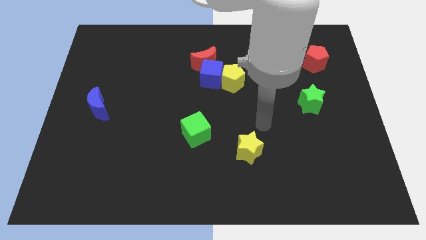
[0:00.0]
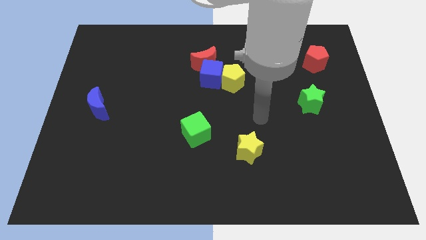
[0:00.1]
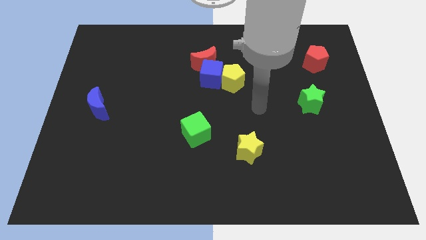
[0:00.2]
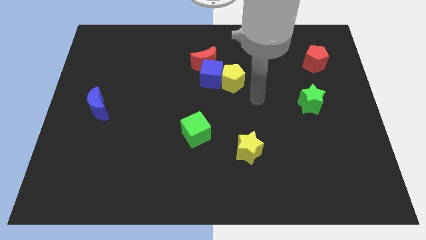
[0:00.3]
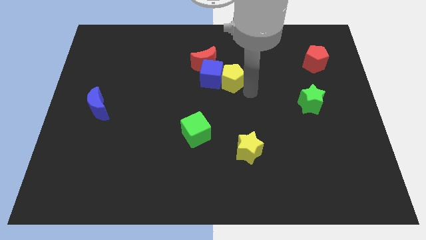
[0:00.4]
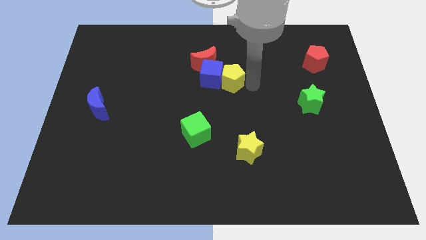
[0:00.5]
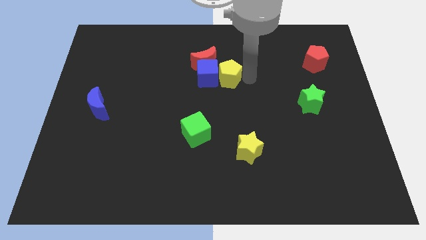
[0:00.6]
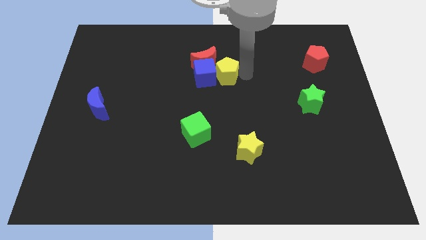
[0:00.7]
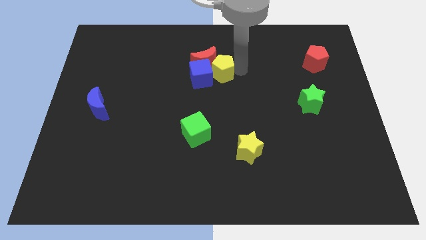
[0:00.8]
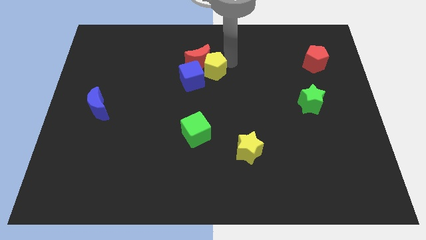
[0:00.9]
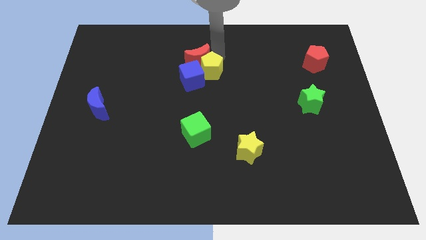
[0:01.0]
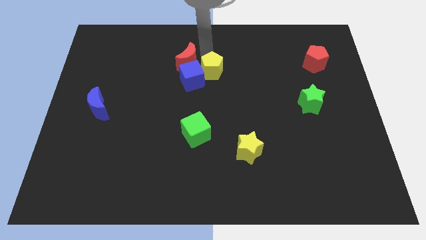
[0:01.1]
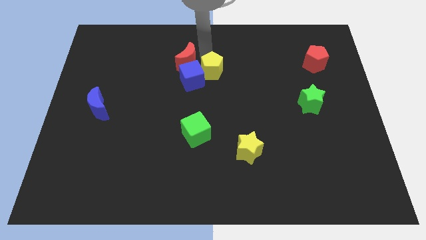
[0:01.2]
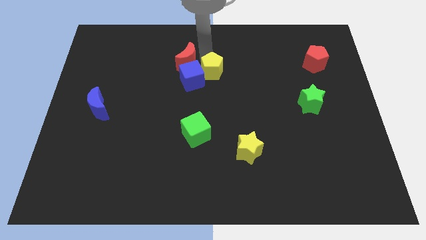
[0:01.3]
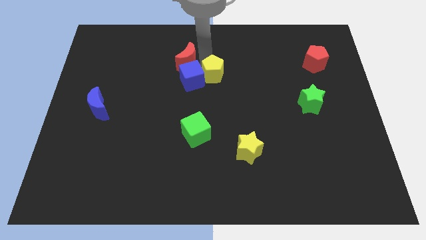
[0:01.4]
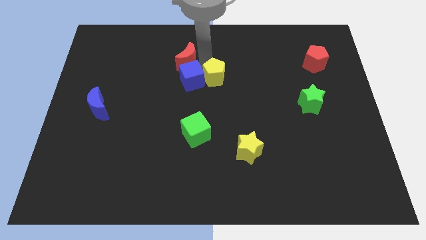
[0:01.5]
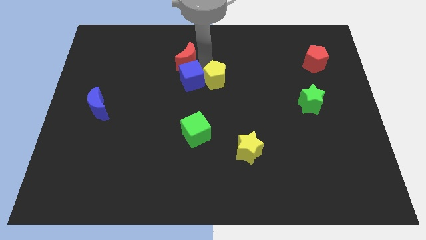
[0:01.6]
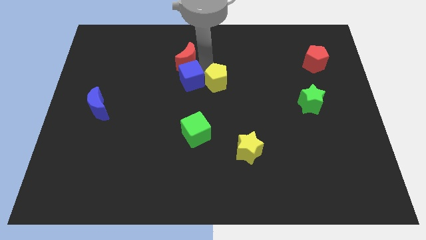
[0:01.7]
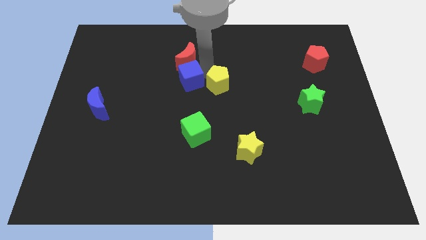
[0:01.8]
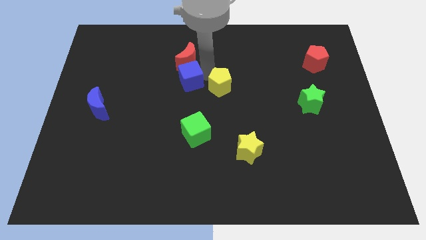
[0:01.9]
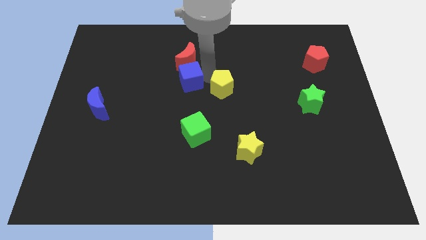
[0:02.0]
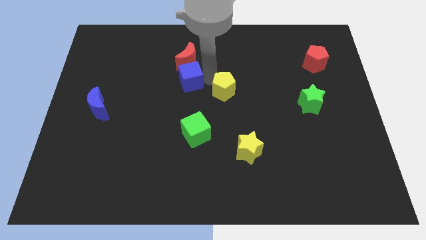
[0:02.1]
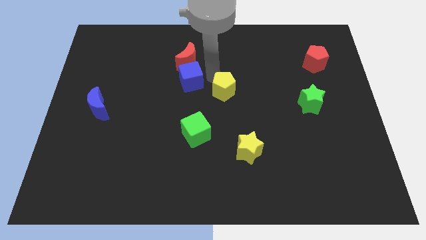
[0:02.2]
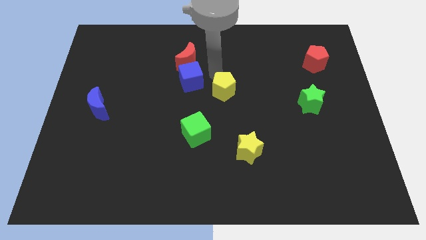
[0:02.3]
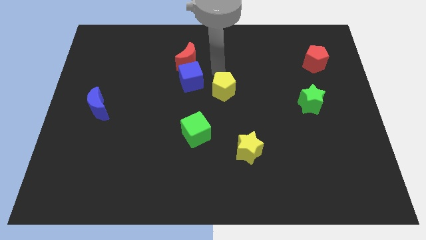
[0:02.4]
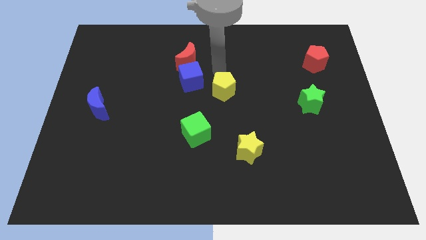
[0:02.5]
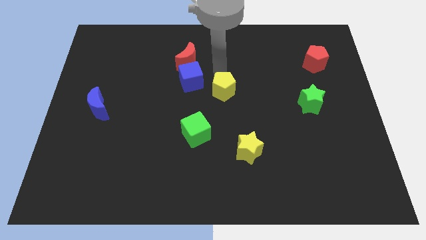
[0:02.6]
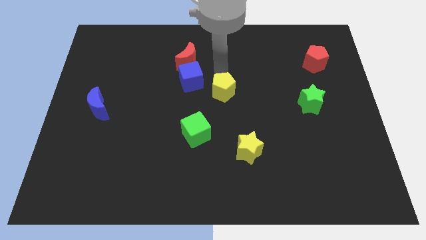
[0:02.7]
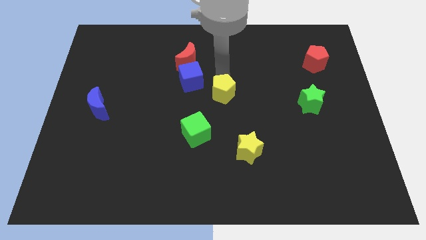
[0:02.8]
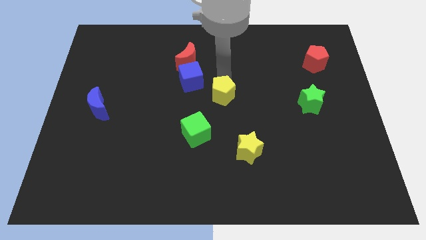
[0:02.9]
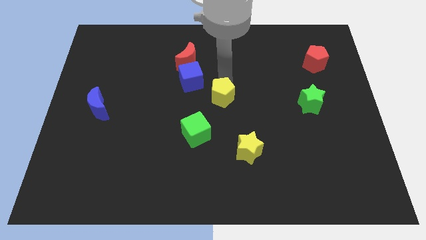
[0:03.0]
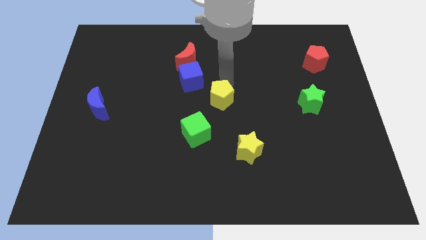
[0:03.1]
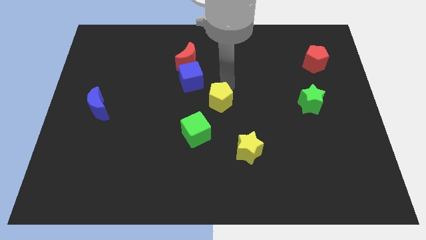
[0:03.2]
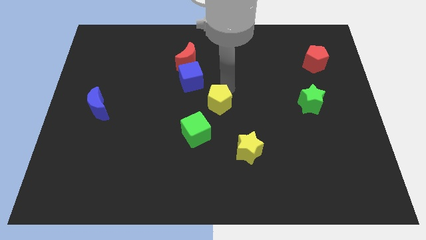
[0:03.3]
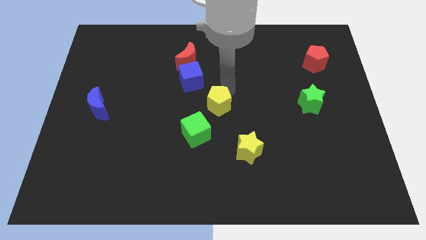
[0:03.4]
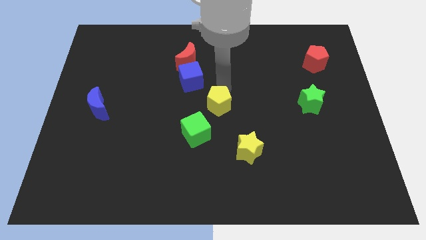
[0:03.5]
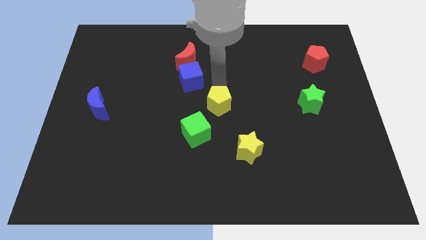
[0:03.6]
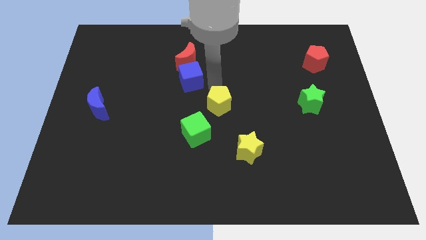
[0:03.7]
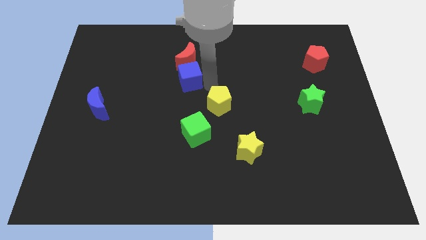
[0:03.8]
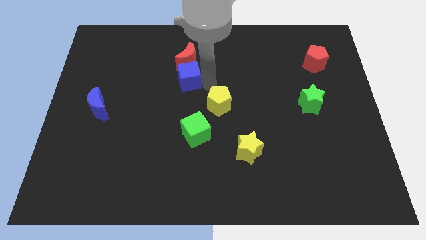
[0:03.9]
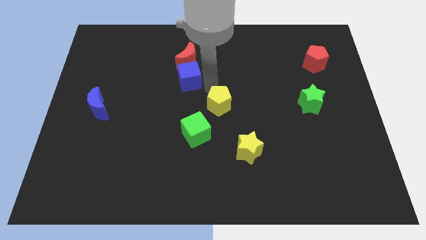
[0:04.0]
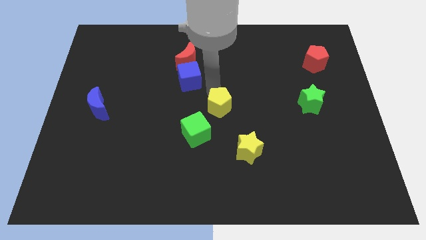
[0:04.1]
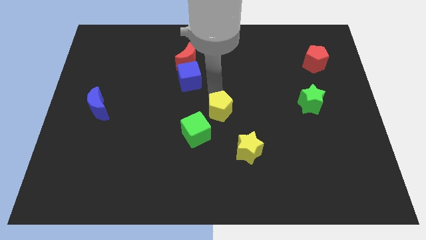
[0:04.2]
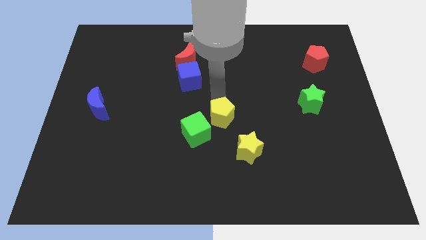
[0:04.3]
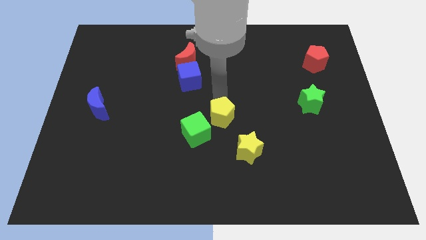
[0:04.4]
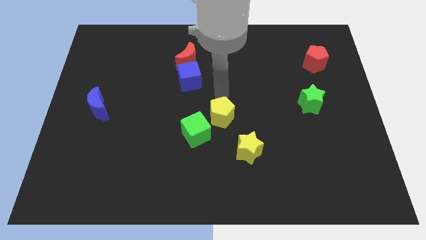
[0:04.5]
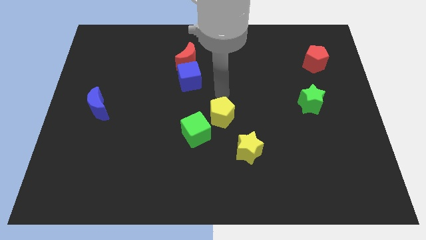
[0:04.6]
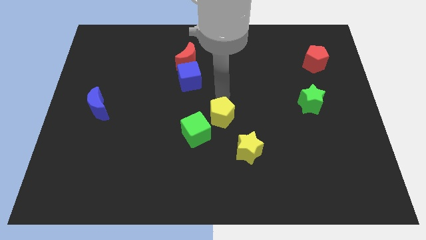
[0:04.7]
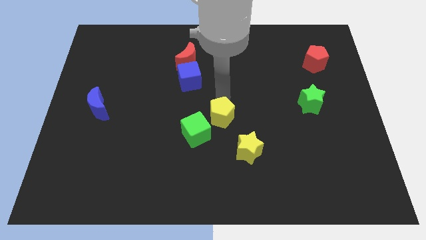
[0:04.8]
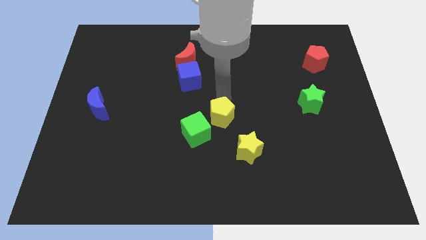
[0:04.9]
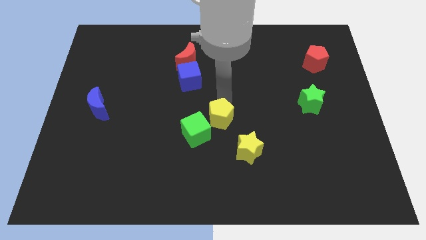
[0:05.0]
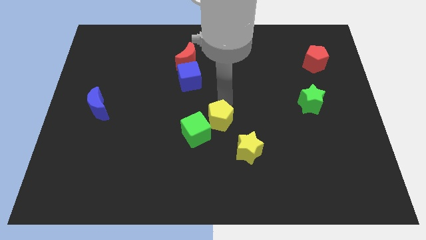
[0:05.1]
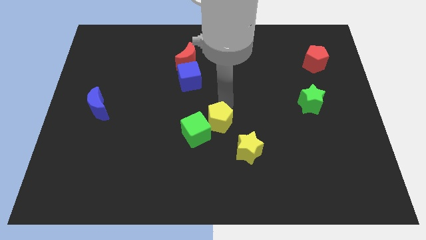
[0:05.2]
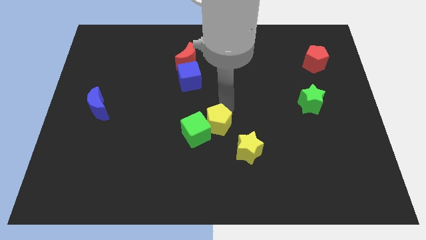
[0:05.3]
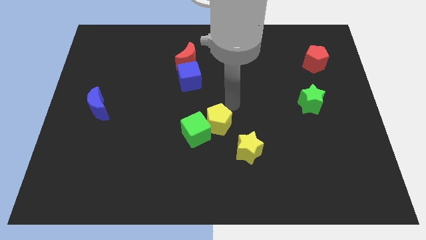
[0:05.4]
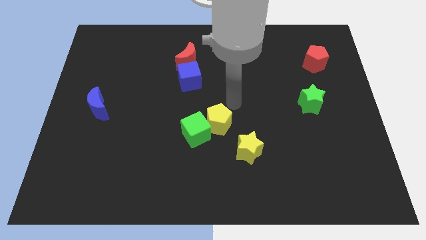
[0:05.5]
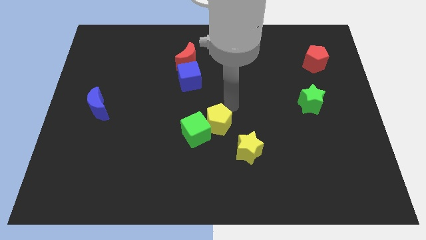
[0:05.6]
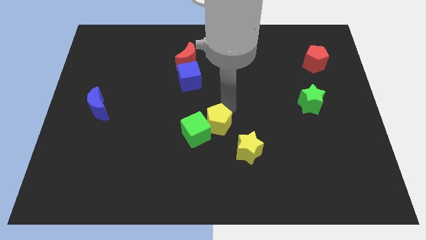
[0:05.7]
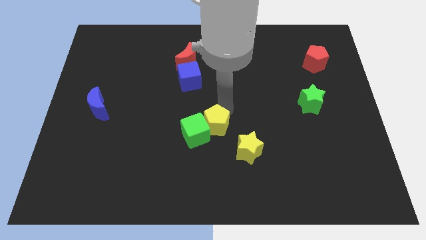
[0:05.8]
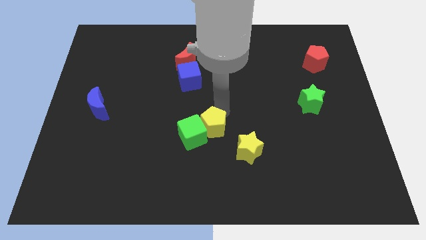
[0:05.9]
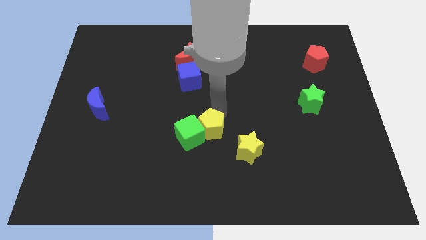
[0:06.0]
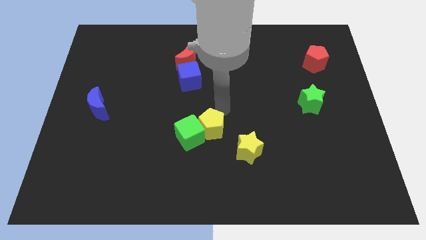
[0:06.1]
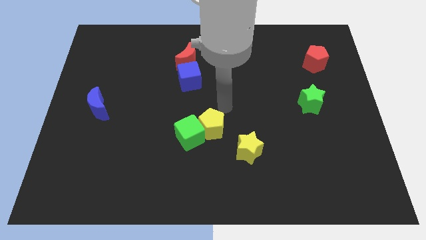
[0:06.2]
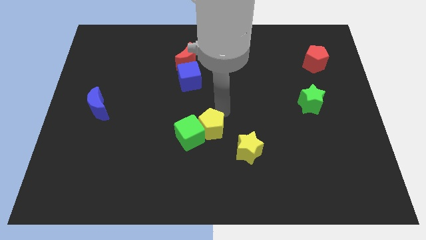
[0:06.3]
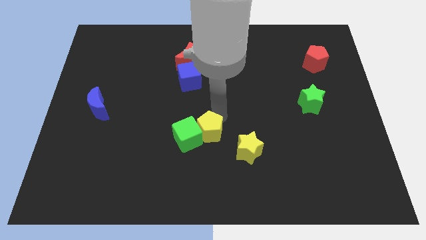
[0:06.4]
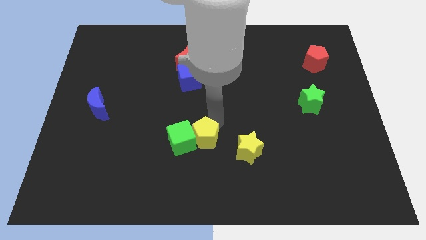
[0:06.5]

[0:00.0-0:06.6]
push the yellow pentagon to the left side of the yellow star

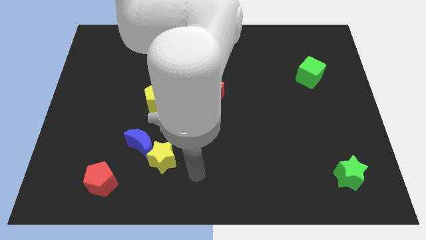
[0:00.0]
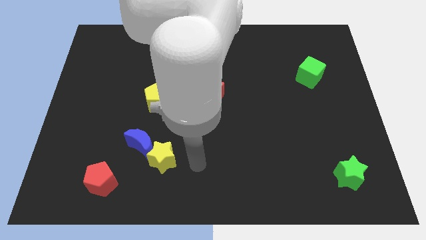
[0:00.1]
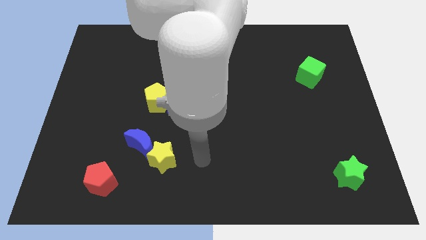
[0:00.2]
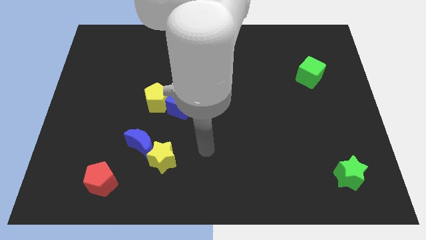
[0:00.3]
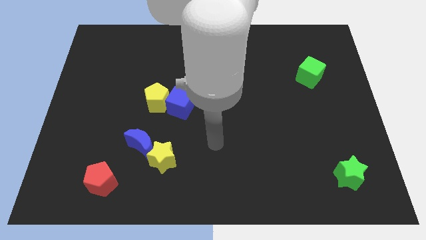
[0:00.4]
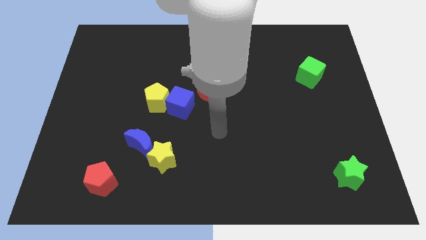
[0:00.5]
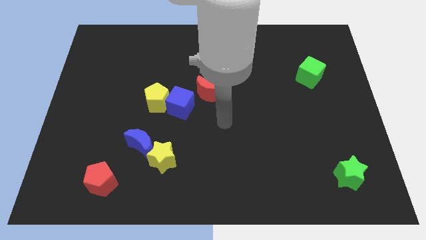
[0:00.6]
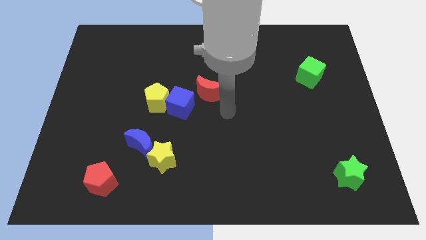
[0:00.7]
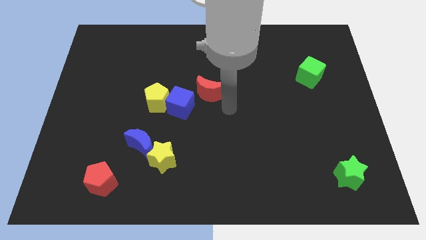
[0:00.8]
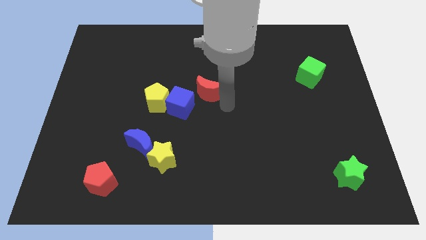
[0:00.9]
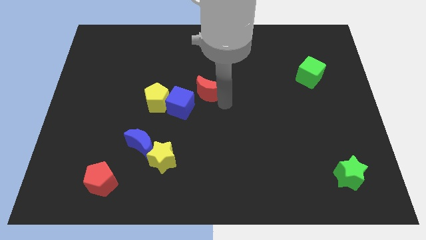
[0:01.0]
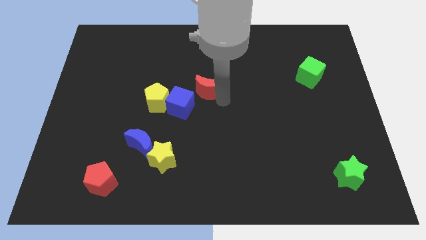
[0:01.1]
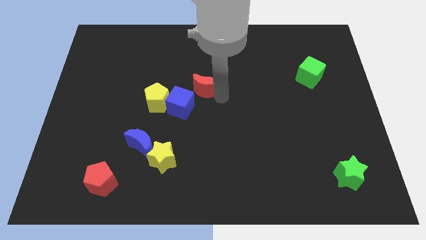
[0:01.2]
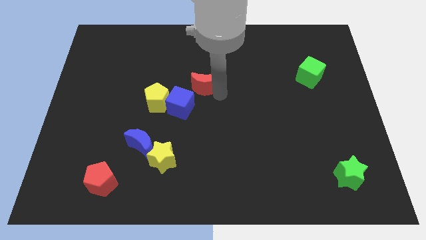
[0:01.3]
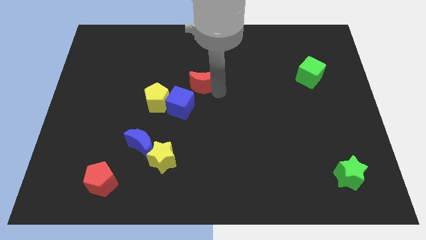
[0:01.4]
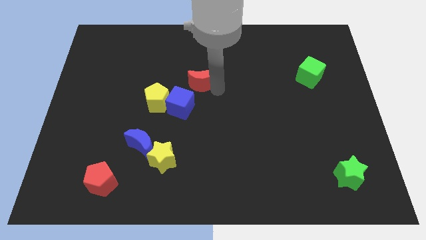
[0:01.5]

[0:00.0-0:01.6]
put the red moon to the top side of the blue cube
